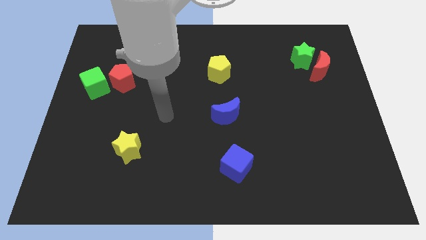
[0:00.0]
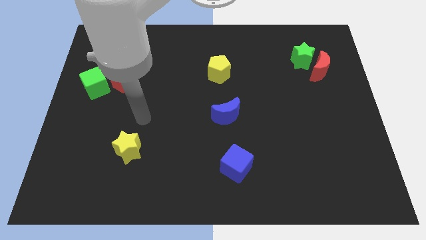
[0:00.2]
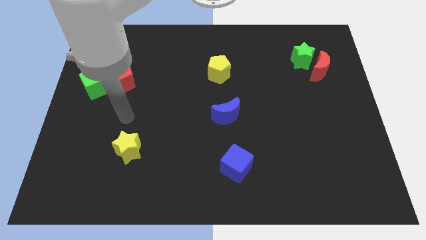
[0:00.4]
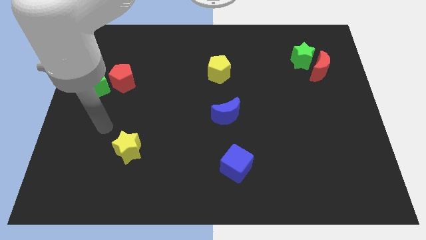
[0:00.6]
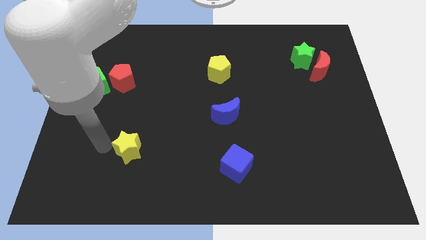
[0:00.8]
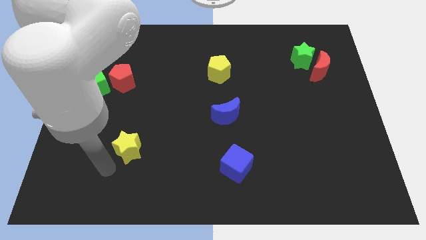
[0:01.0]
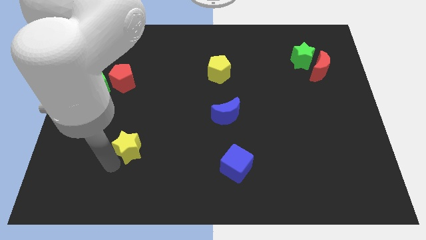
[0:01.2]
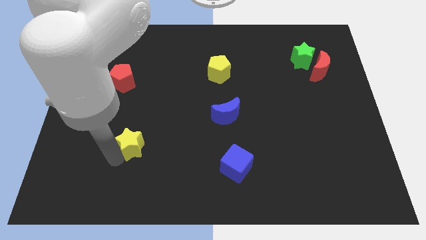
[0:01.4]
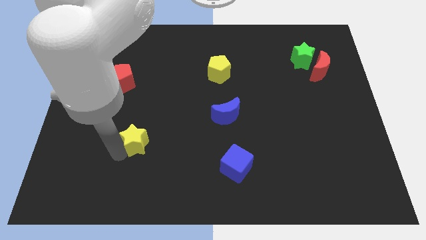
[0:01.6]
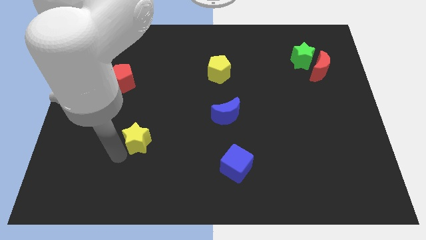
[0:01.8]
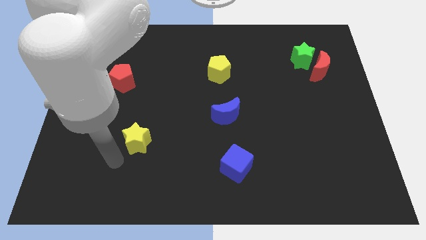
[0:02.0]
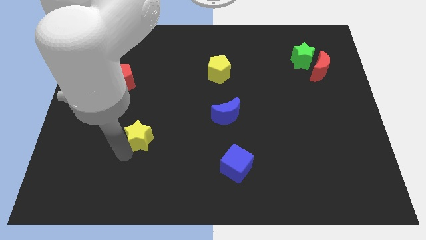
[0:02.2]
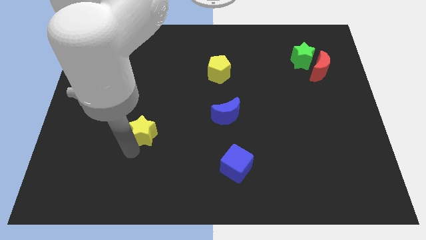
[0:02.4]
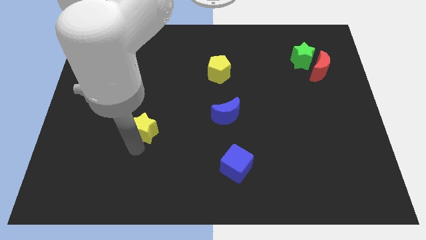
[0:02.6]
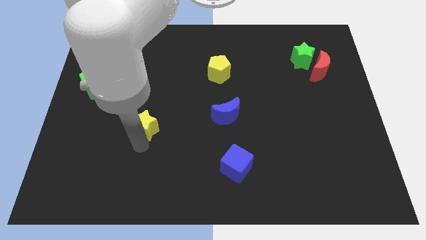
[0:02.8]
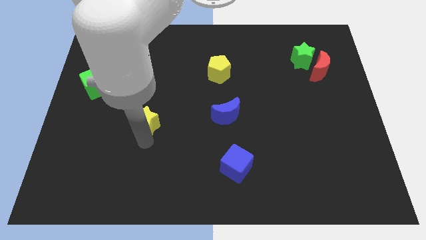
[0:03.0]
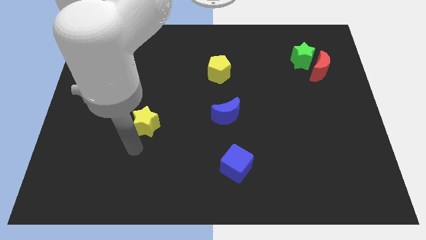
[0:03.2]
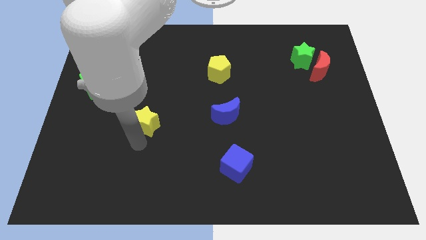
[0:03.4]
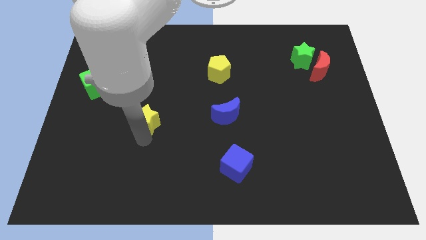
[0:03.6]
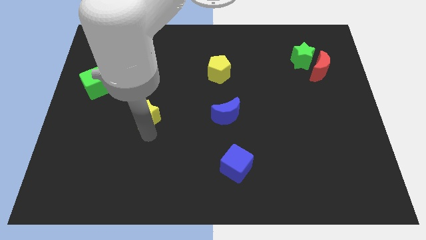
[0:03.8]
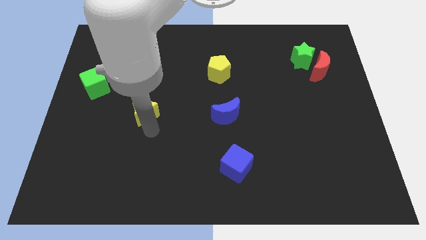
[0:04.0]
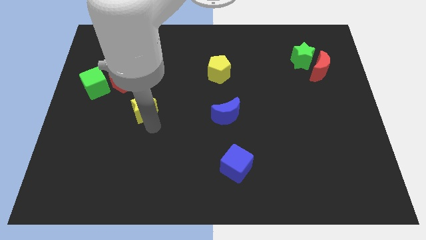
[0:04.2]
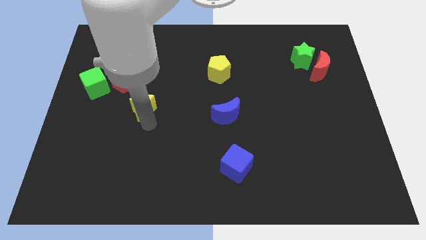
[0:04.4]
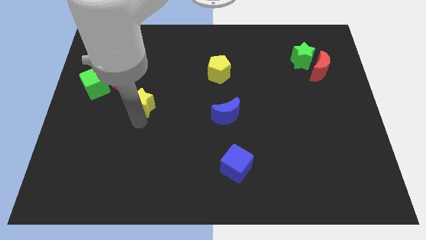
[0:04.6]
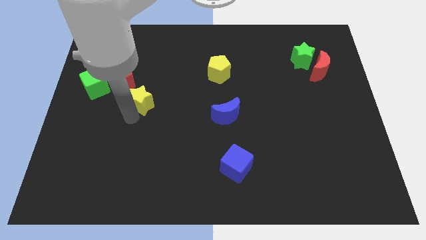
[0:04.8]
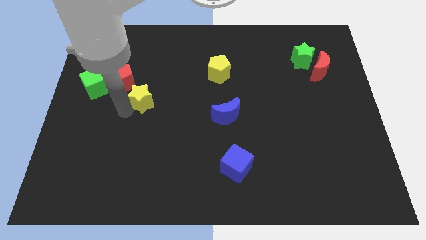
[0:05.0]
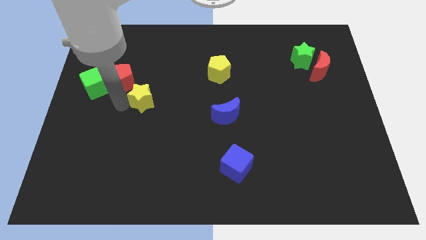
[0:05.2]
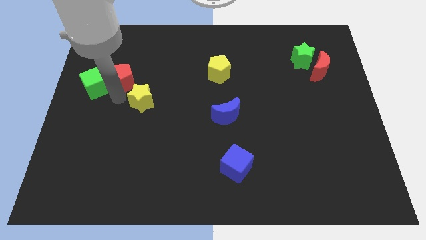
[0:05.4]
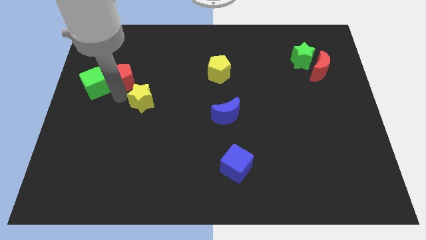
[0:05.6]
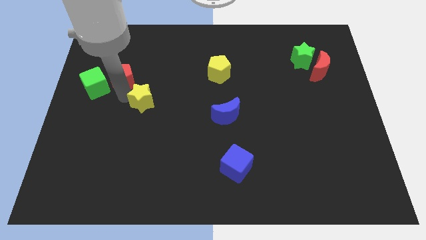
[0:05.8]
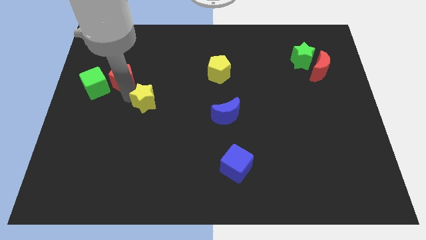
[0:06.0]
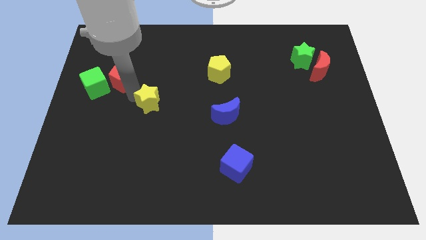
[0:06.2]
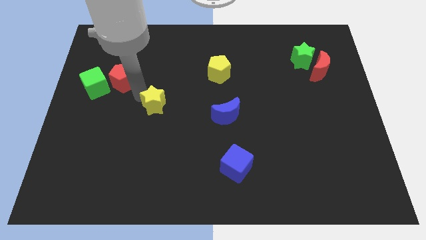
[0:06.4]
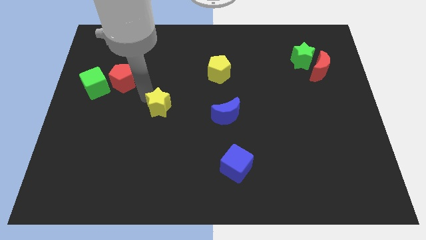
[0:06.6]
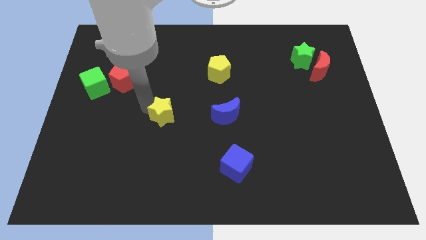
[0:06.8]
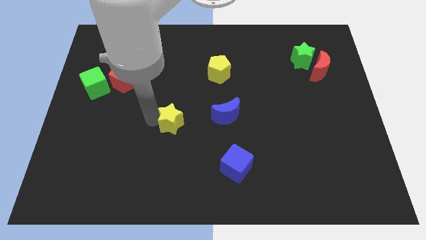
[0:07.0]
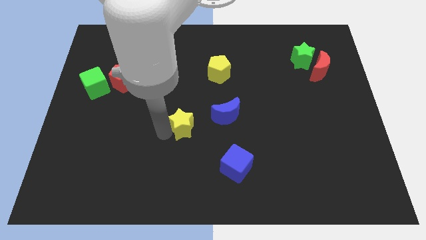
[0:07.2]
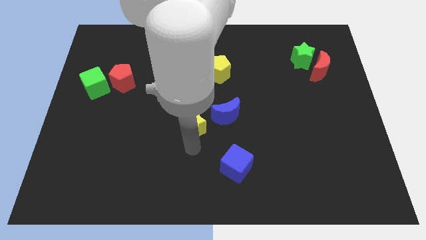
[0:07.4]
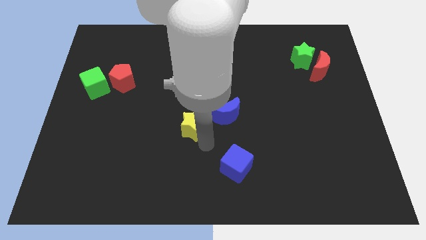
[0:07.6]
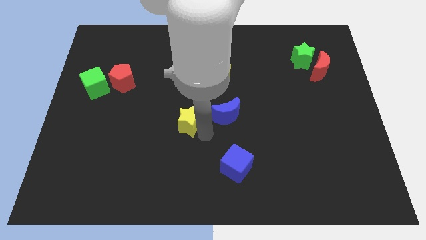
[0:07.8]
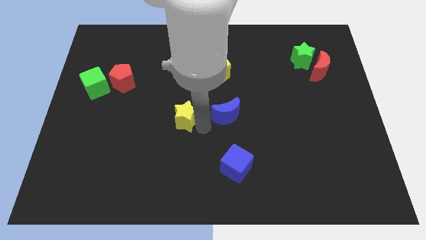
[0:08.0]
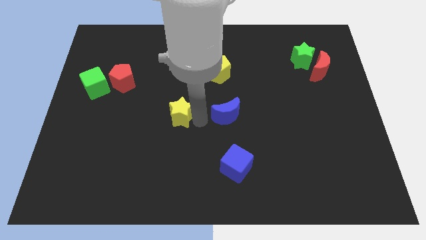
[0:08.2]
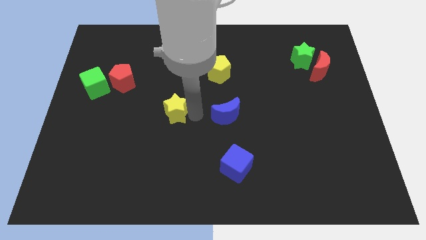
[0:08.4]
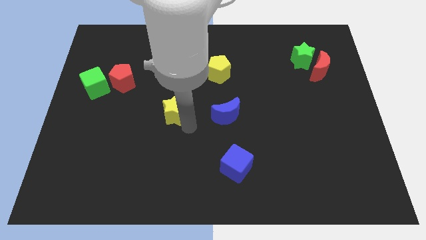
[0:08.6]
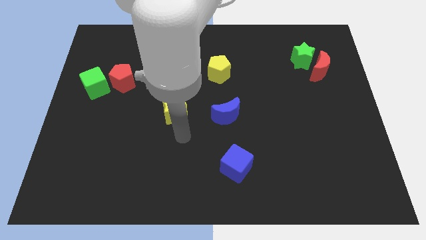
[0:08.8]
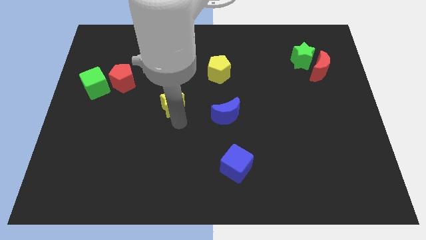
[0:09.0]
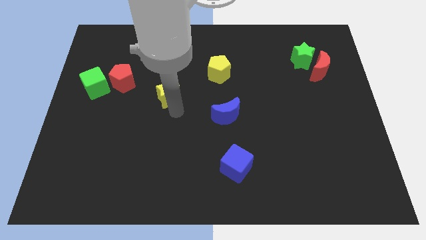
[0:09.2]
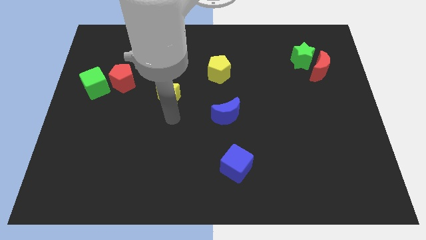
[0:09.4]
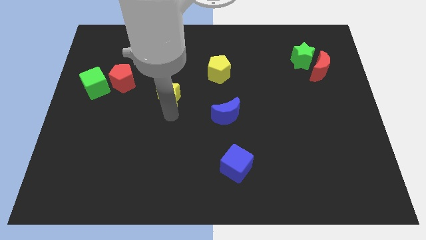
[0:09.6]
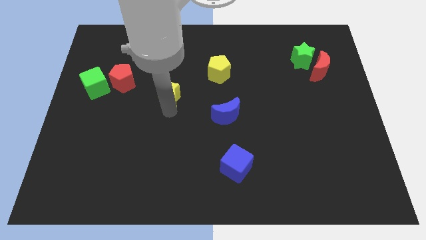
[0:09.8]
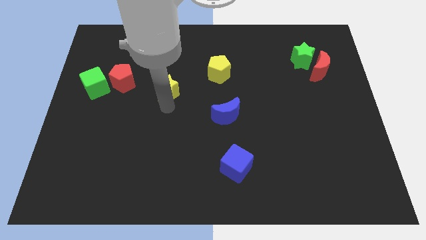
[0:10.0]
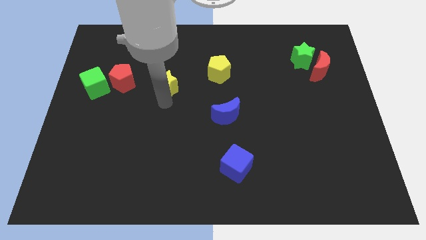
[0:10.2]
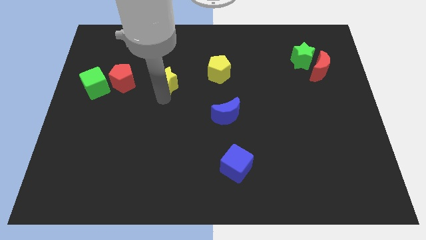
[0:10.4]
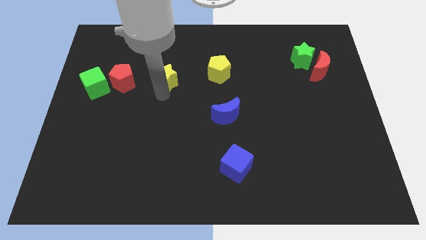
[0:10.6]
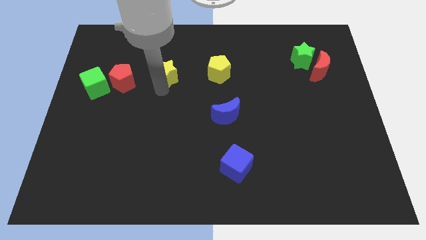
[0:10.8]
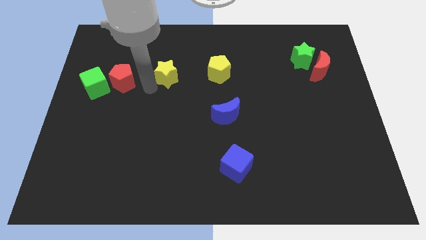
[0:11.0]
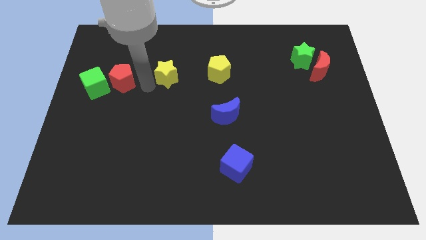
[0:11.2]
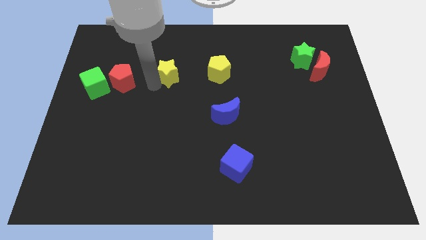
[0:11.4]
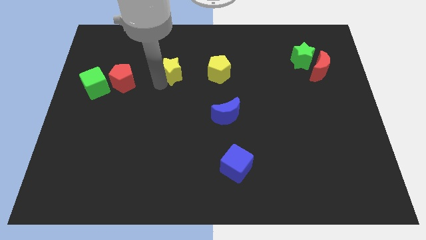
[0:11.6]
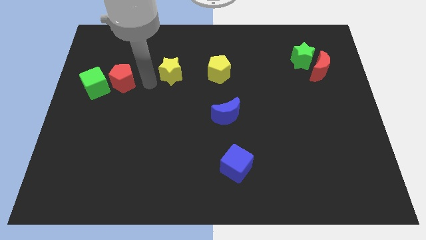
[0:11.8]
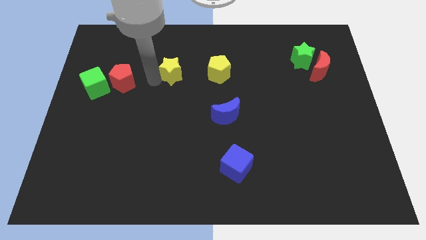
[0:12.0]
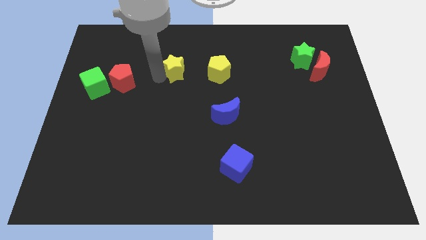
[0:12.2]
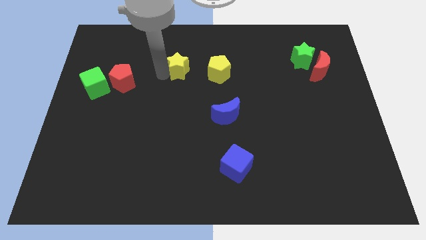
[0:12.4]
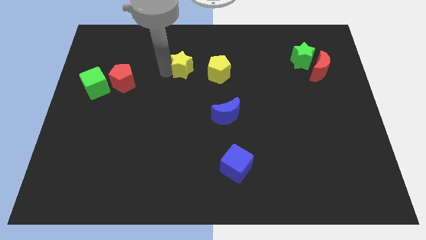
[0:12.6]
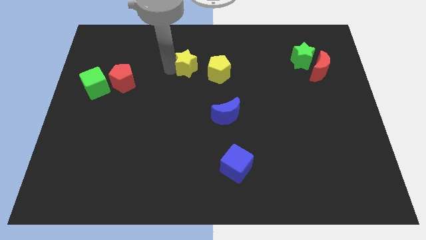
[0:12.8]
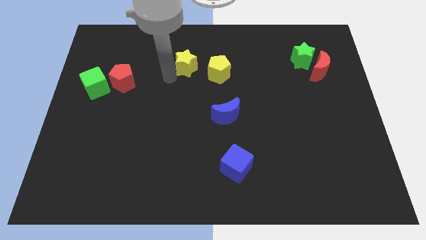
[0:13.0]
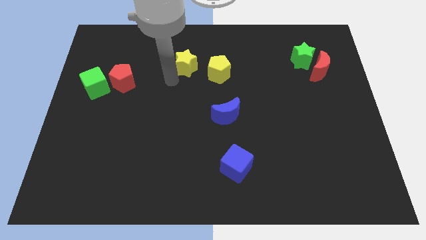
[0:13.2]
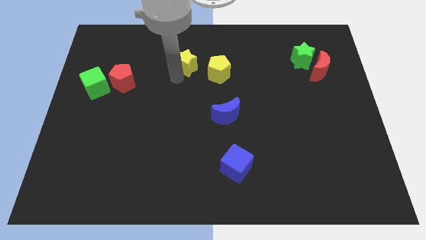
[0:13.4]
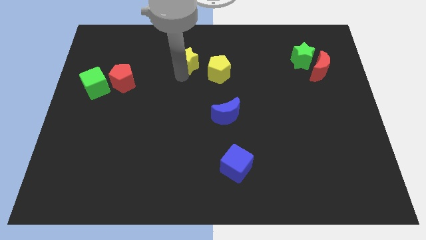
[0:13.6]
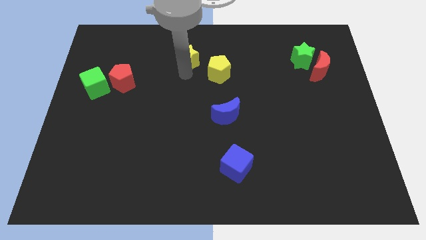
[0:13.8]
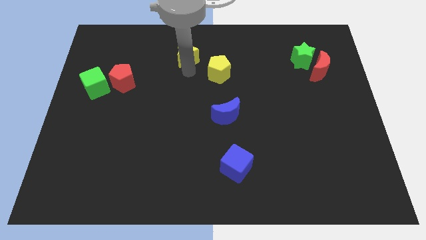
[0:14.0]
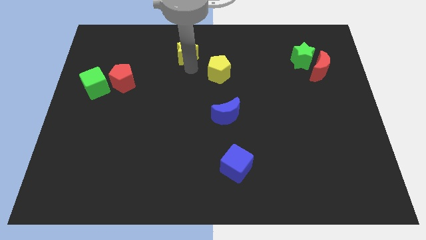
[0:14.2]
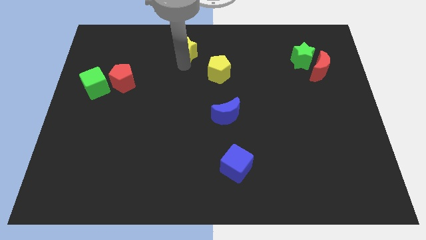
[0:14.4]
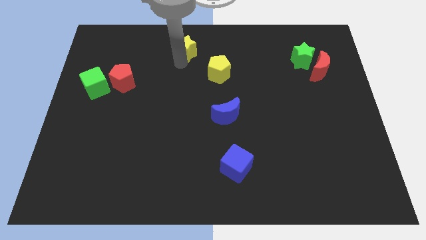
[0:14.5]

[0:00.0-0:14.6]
slide the yellow star to the towards your base
